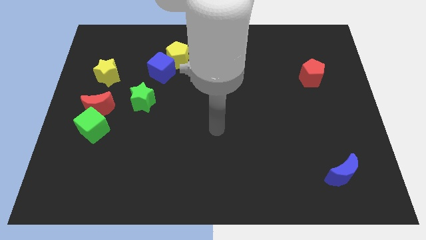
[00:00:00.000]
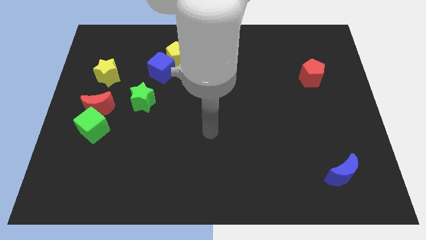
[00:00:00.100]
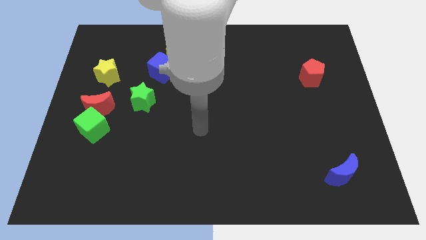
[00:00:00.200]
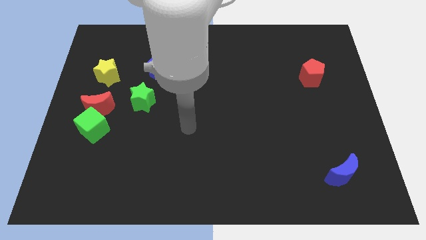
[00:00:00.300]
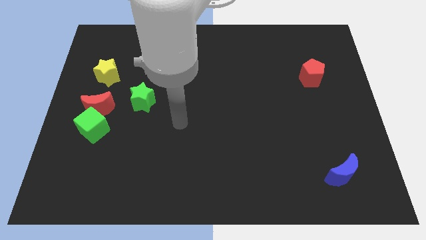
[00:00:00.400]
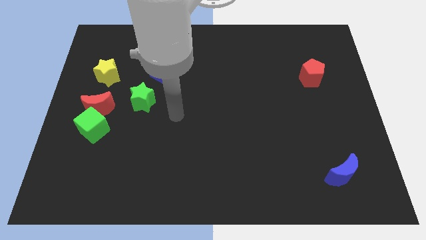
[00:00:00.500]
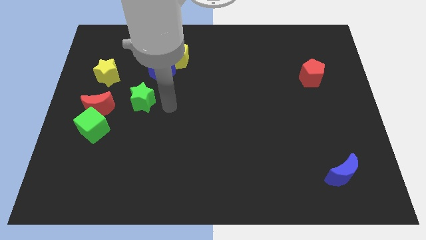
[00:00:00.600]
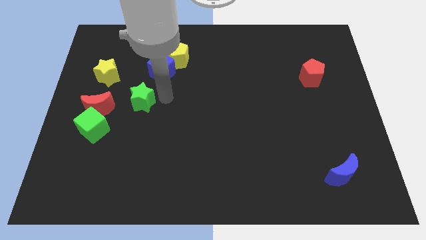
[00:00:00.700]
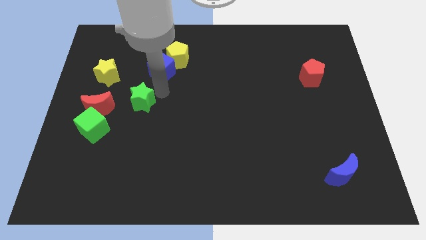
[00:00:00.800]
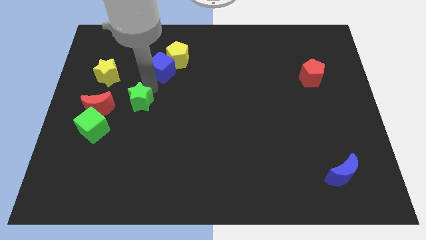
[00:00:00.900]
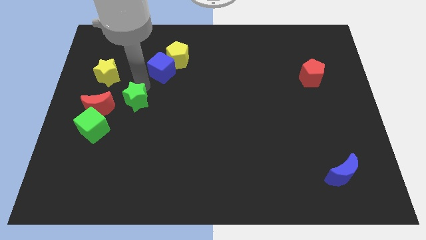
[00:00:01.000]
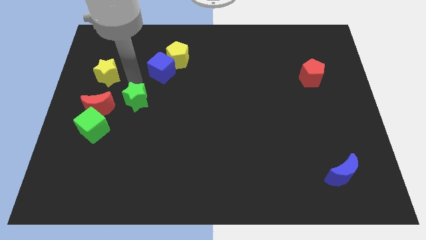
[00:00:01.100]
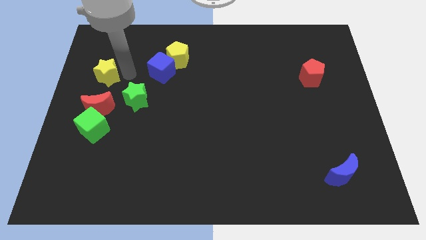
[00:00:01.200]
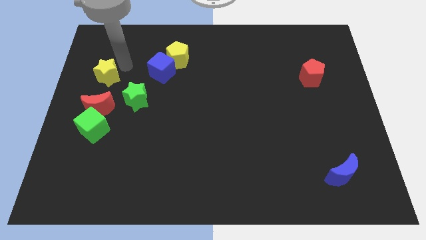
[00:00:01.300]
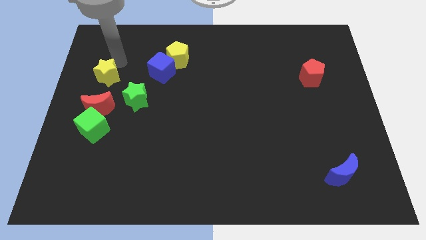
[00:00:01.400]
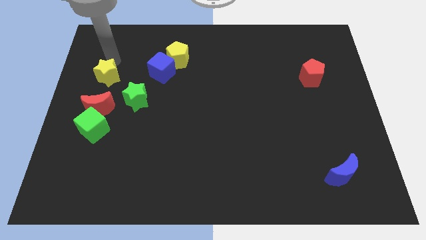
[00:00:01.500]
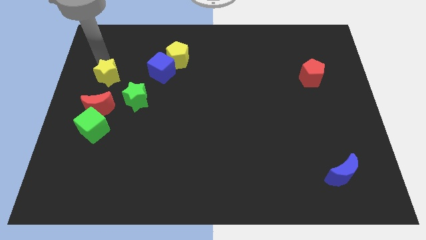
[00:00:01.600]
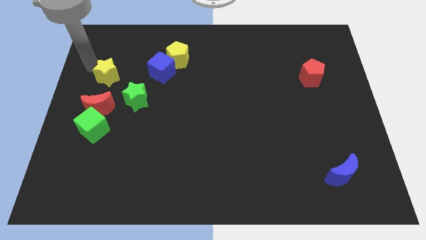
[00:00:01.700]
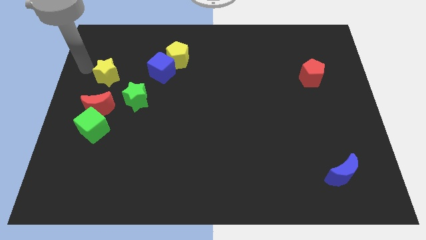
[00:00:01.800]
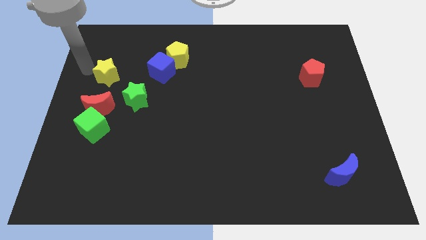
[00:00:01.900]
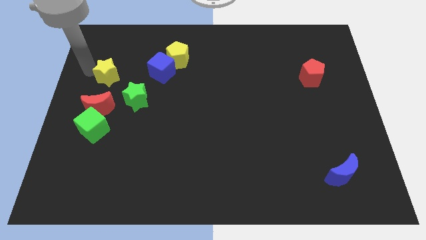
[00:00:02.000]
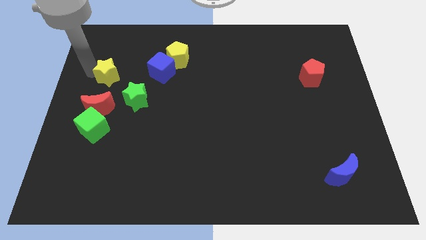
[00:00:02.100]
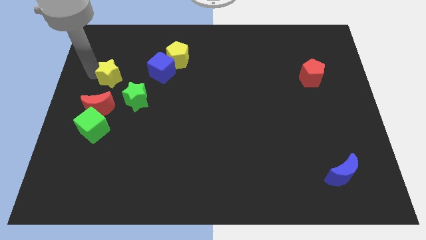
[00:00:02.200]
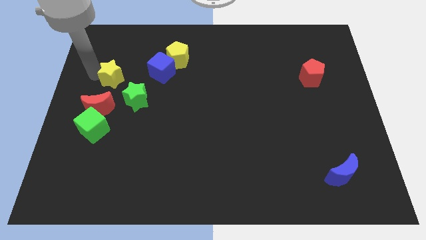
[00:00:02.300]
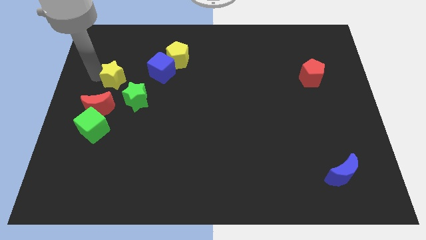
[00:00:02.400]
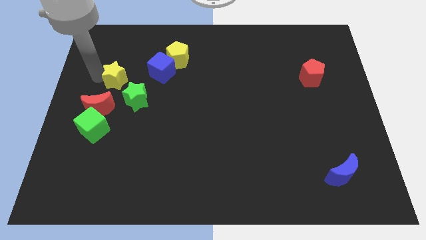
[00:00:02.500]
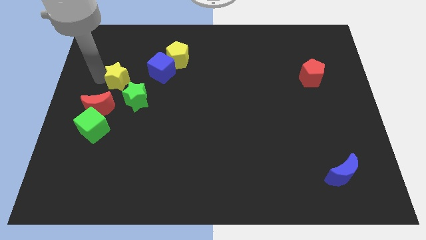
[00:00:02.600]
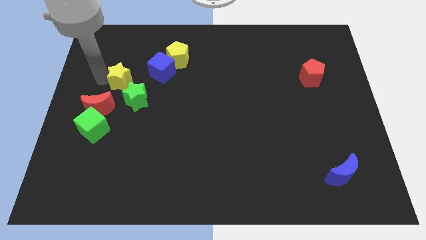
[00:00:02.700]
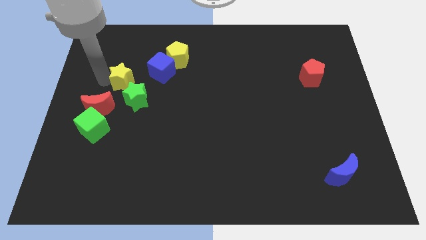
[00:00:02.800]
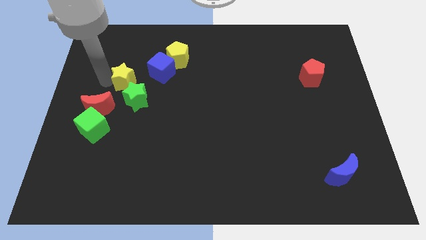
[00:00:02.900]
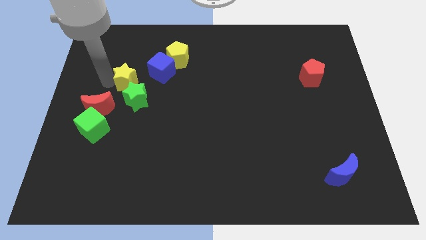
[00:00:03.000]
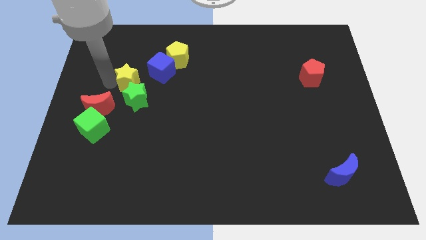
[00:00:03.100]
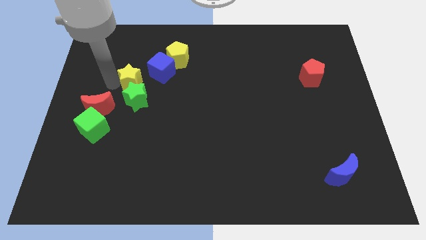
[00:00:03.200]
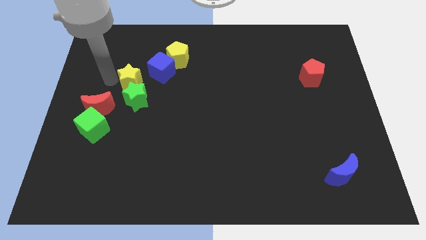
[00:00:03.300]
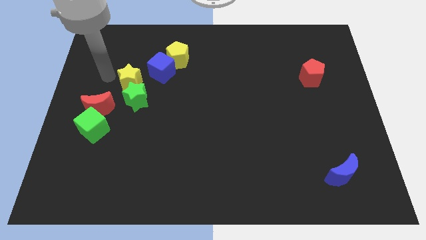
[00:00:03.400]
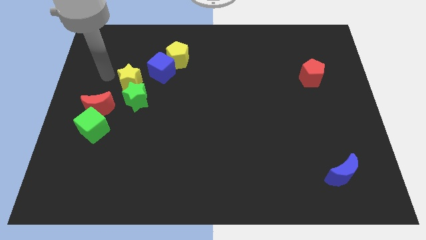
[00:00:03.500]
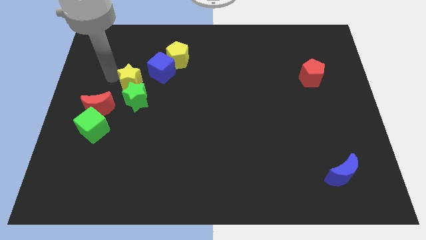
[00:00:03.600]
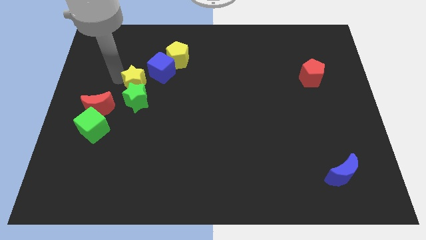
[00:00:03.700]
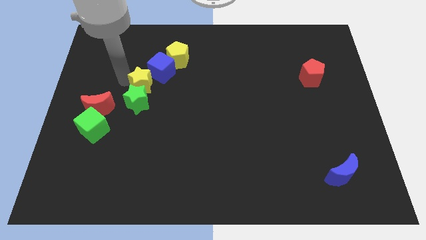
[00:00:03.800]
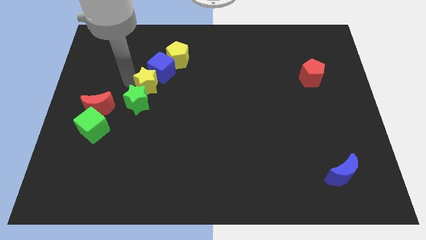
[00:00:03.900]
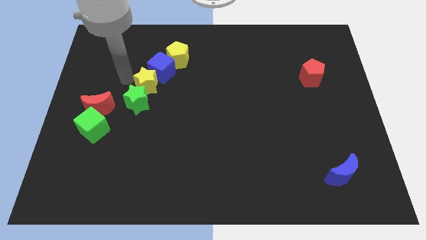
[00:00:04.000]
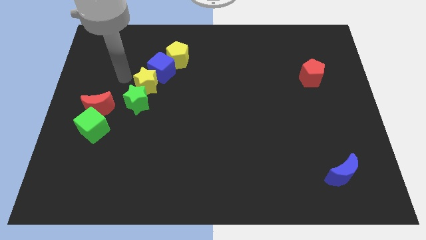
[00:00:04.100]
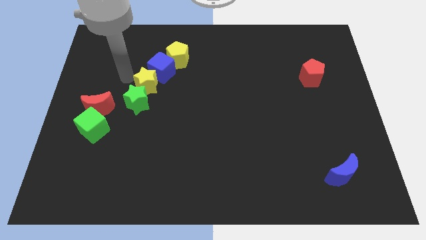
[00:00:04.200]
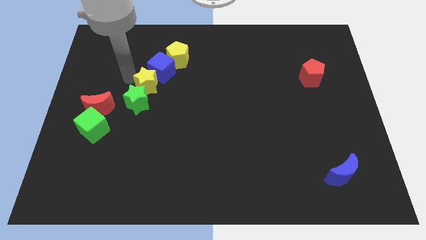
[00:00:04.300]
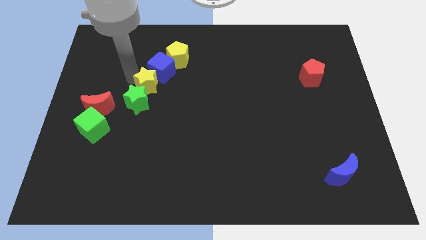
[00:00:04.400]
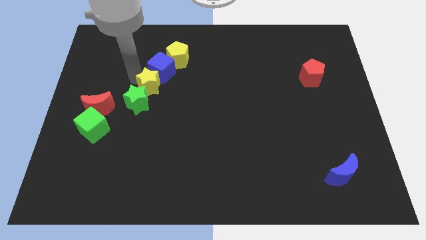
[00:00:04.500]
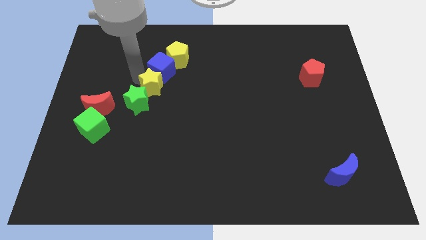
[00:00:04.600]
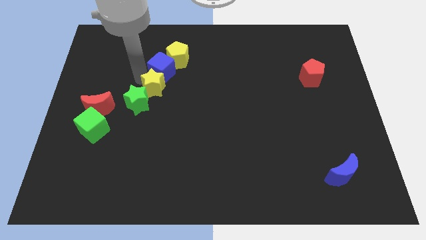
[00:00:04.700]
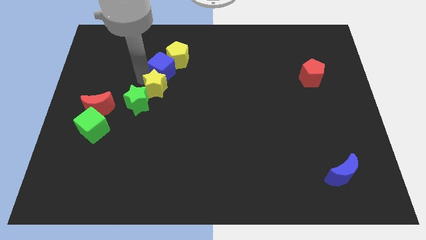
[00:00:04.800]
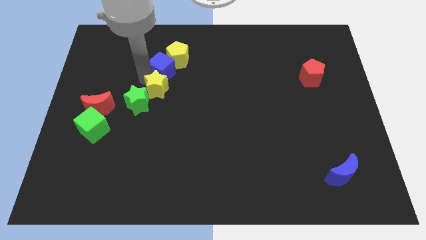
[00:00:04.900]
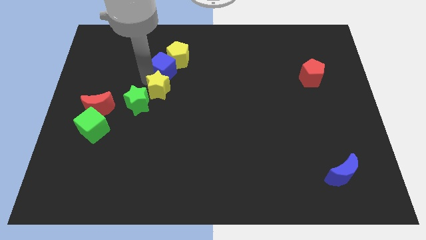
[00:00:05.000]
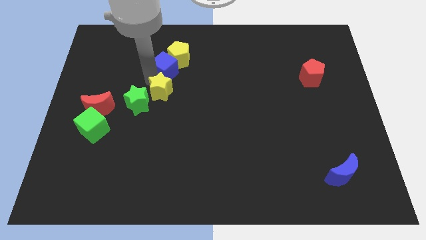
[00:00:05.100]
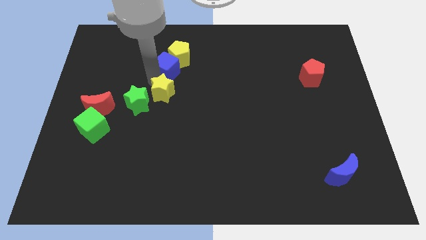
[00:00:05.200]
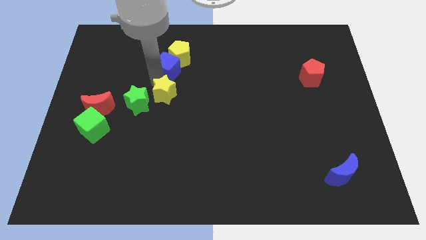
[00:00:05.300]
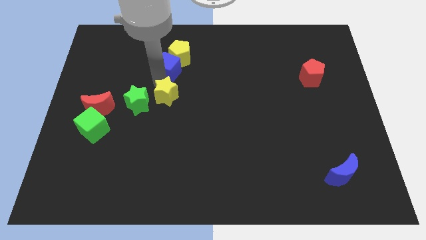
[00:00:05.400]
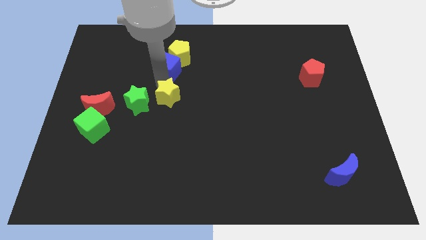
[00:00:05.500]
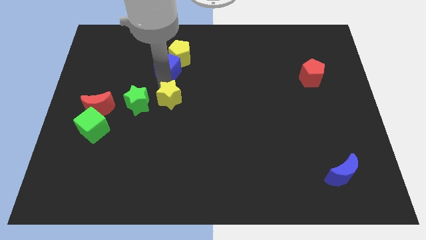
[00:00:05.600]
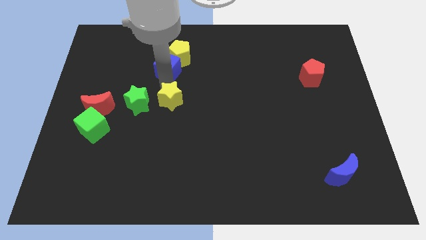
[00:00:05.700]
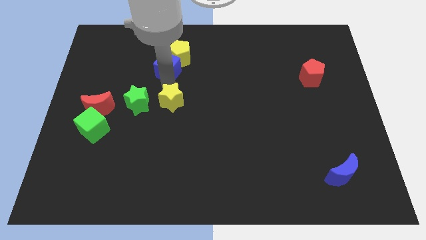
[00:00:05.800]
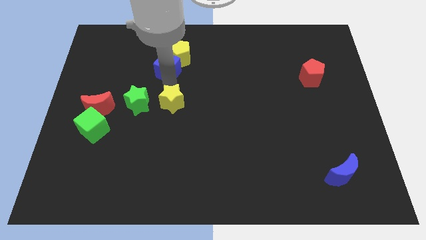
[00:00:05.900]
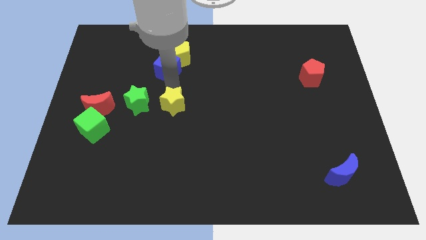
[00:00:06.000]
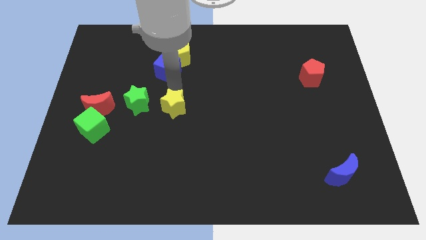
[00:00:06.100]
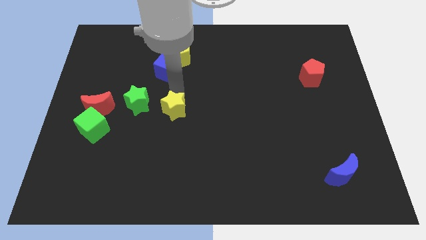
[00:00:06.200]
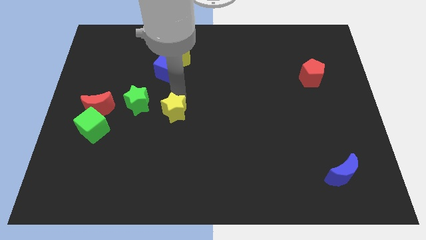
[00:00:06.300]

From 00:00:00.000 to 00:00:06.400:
slide the yellow star downwards and then right

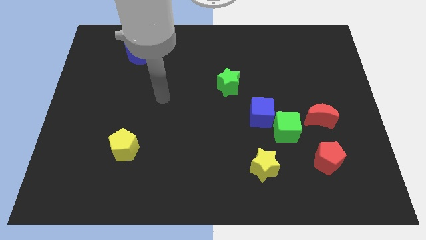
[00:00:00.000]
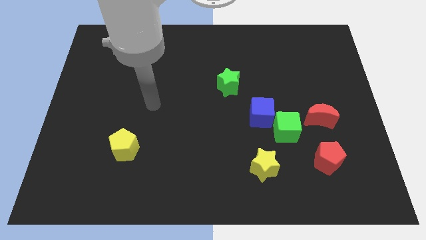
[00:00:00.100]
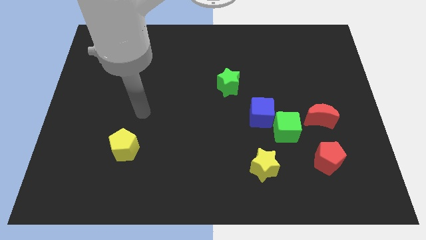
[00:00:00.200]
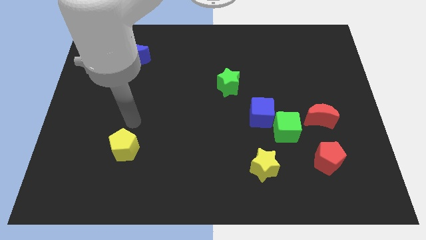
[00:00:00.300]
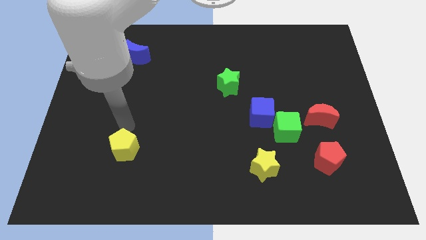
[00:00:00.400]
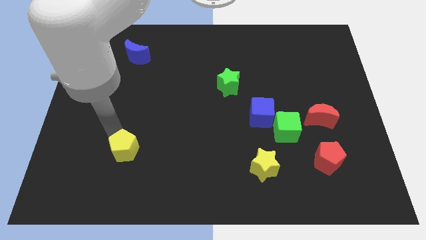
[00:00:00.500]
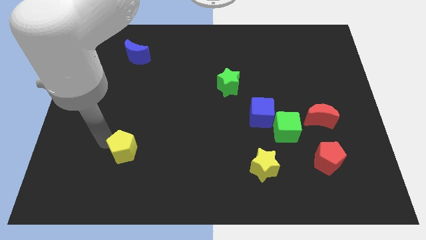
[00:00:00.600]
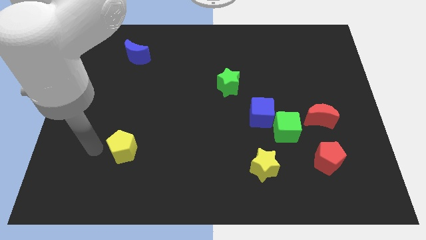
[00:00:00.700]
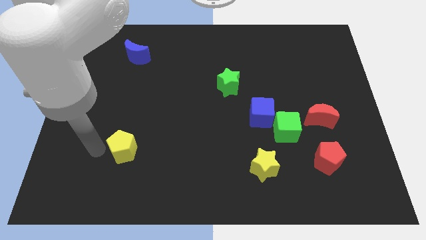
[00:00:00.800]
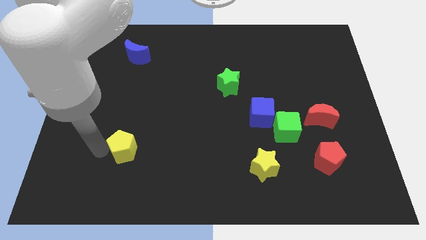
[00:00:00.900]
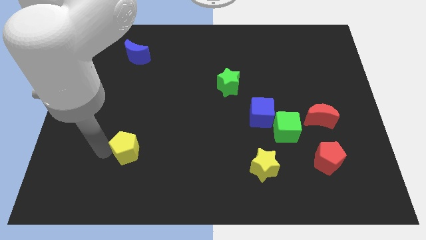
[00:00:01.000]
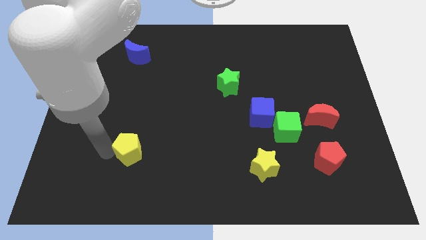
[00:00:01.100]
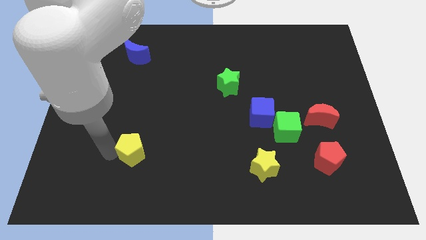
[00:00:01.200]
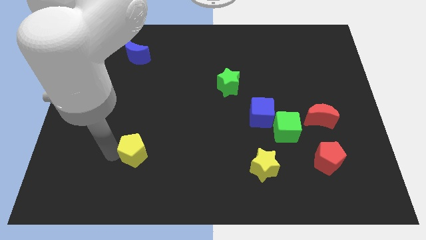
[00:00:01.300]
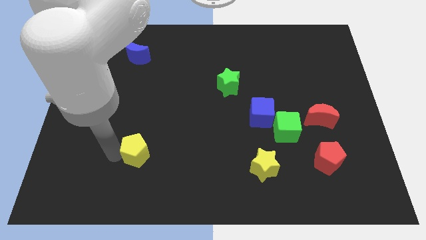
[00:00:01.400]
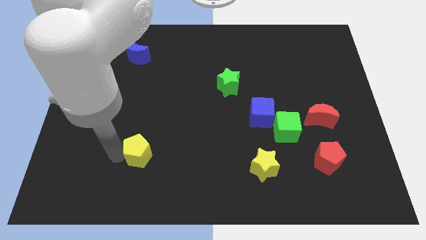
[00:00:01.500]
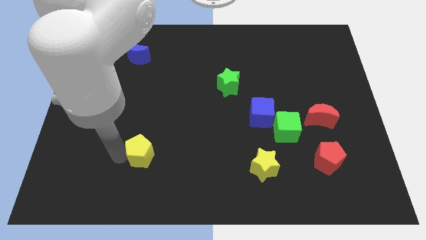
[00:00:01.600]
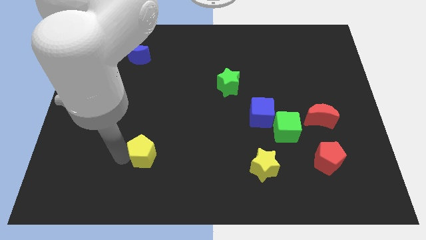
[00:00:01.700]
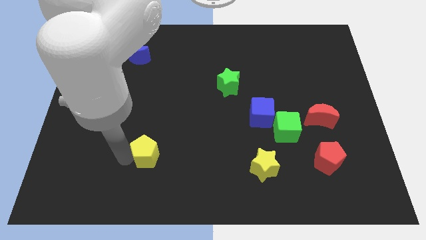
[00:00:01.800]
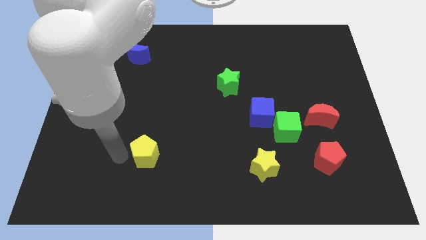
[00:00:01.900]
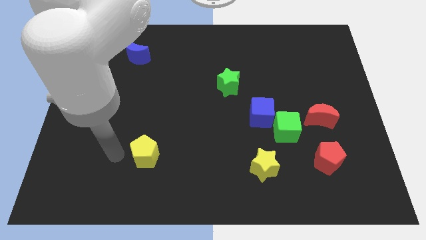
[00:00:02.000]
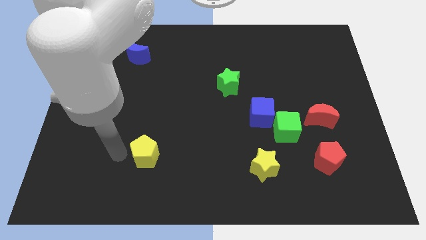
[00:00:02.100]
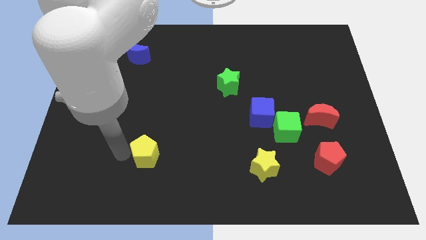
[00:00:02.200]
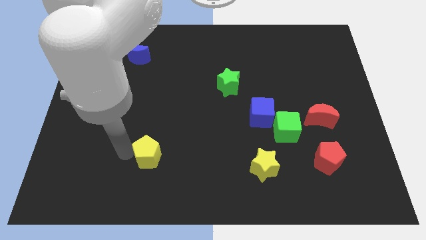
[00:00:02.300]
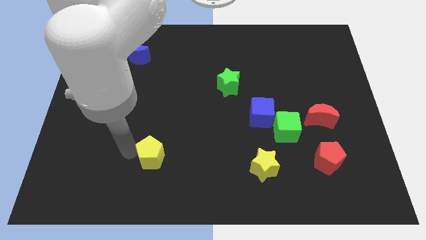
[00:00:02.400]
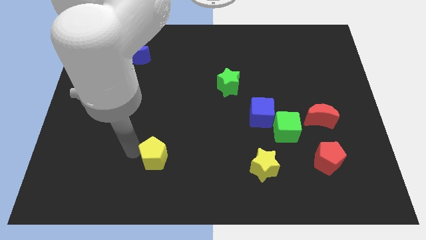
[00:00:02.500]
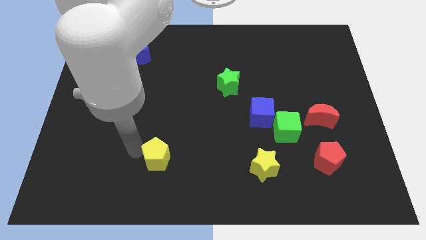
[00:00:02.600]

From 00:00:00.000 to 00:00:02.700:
slide the yellow pentagon right a little bit
